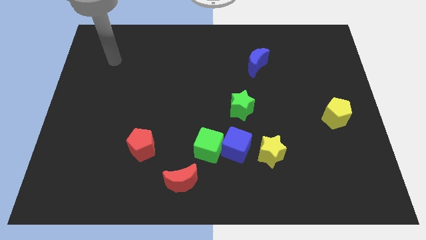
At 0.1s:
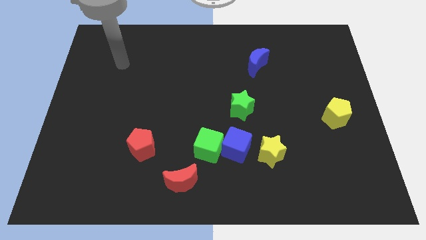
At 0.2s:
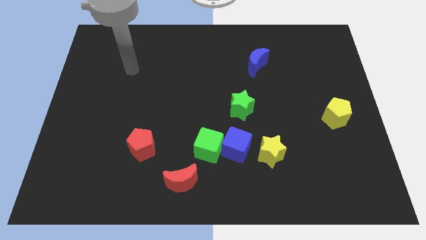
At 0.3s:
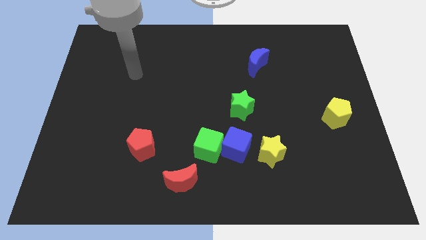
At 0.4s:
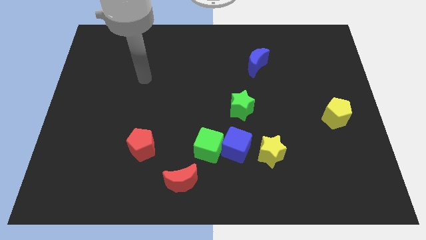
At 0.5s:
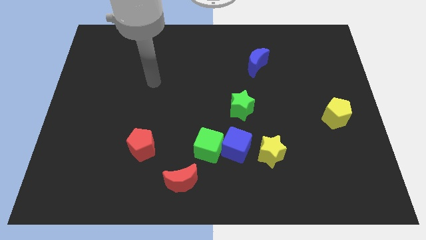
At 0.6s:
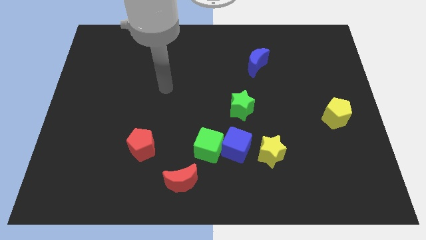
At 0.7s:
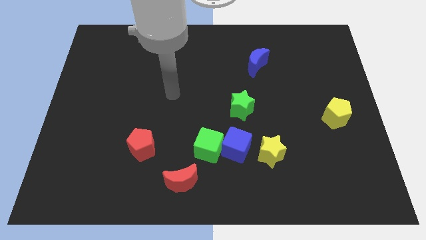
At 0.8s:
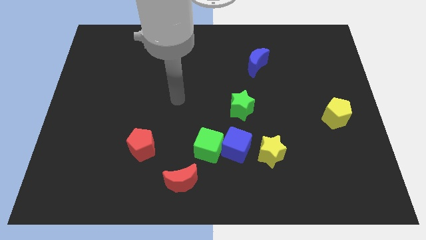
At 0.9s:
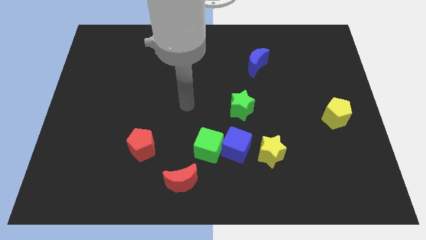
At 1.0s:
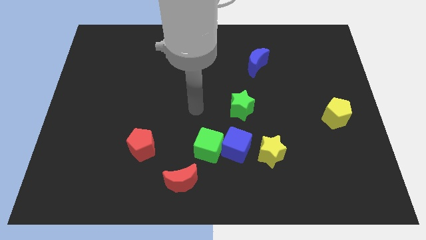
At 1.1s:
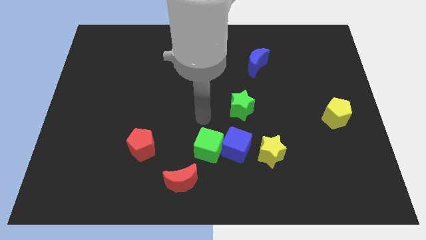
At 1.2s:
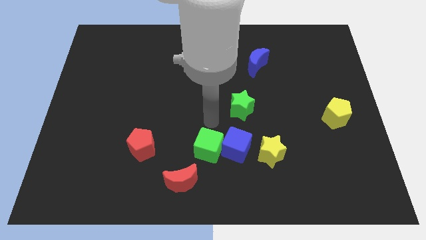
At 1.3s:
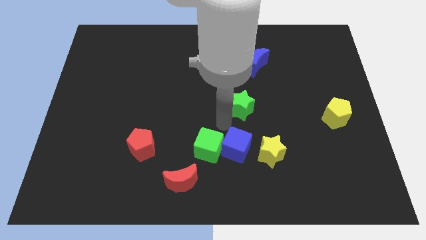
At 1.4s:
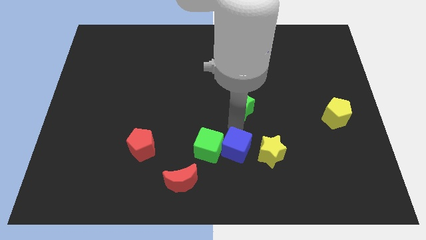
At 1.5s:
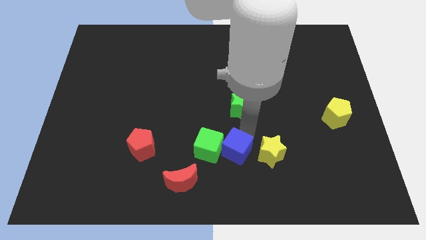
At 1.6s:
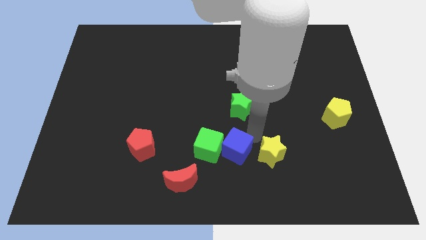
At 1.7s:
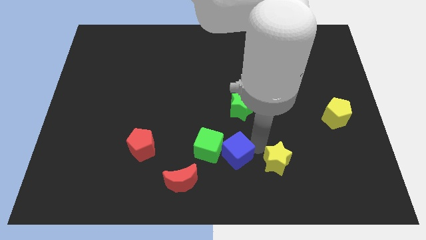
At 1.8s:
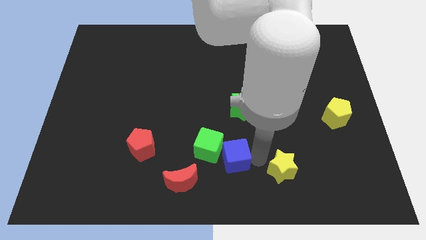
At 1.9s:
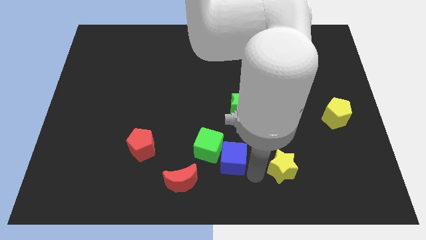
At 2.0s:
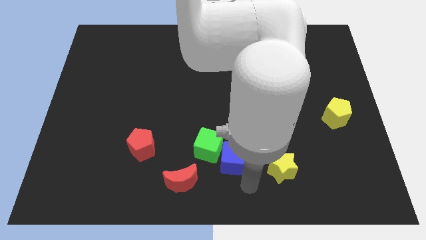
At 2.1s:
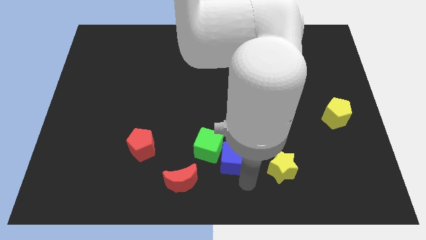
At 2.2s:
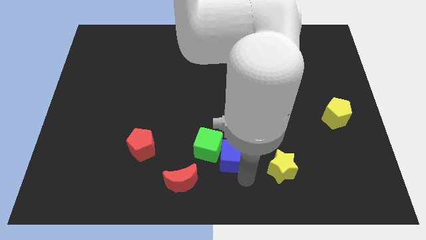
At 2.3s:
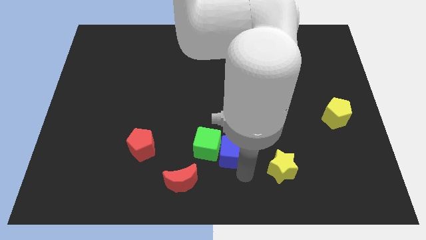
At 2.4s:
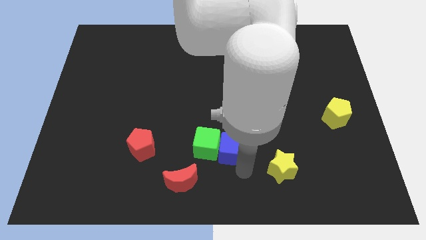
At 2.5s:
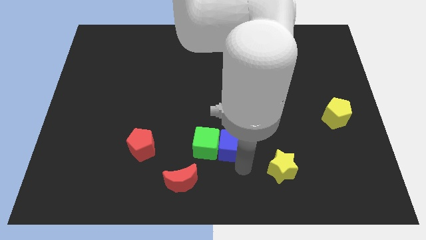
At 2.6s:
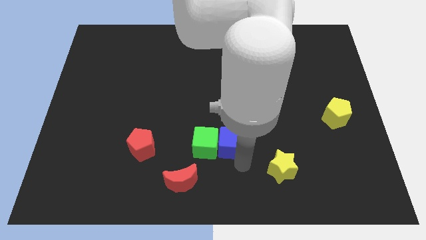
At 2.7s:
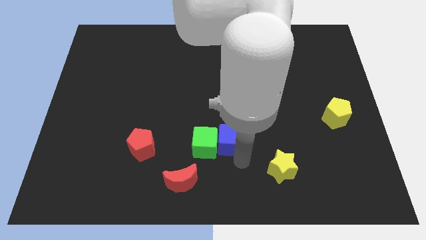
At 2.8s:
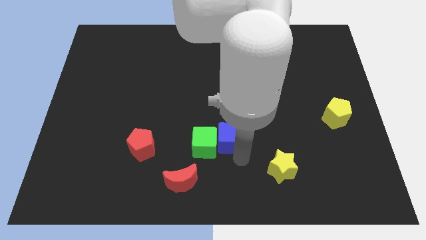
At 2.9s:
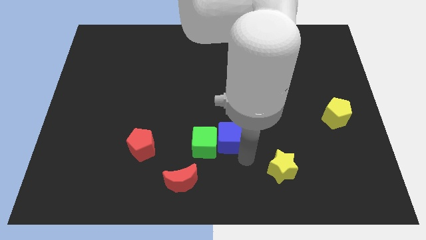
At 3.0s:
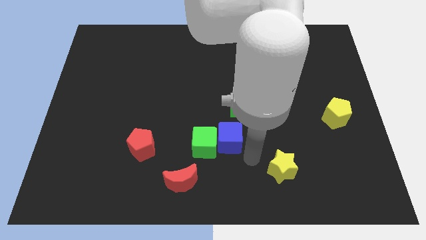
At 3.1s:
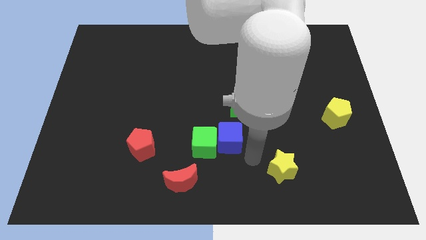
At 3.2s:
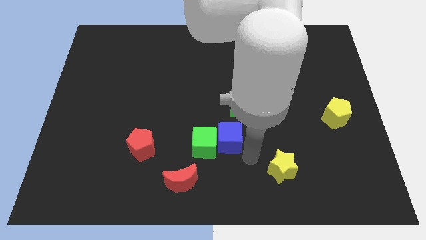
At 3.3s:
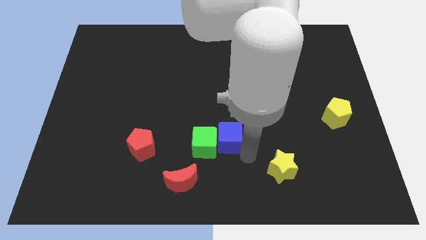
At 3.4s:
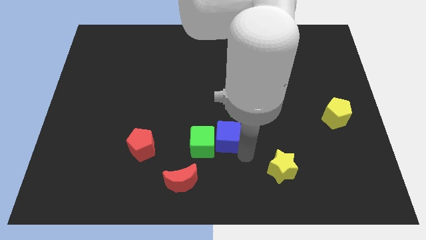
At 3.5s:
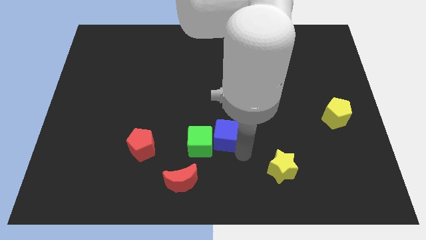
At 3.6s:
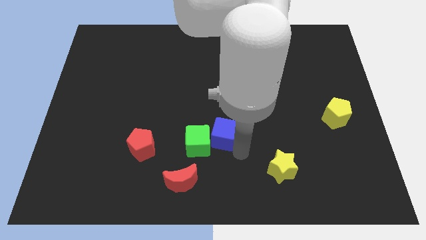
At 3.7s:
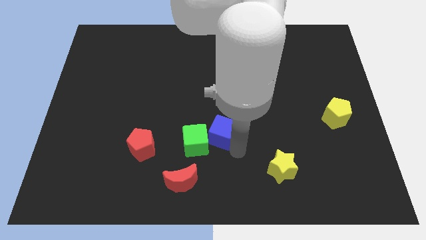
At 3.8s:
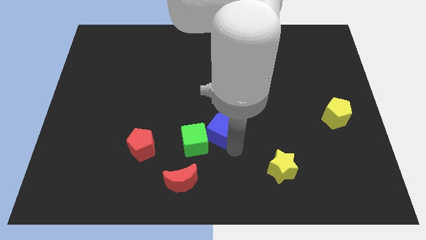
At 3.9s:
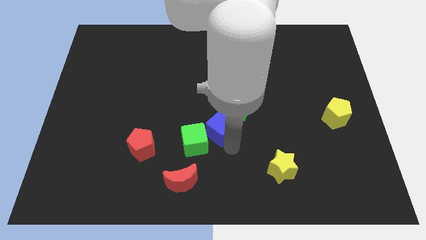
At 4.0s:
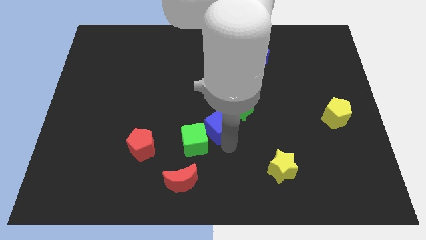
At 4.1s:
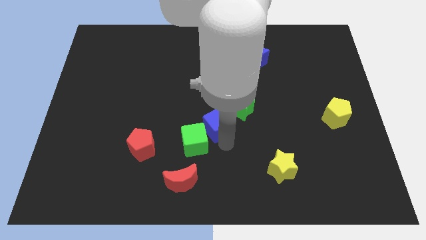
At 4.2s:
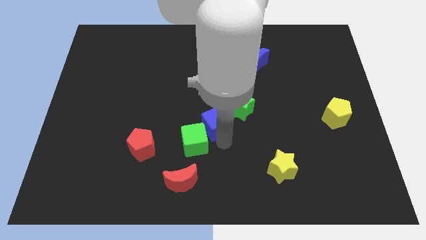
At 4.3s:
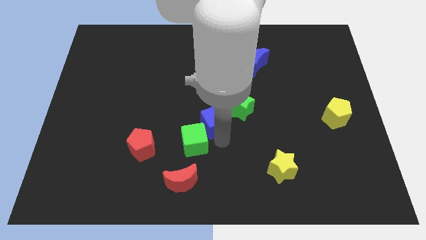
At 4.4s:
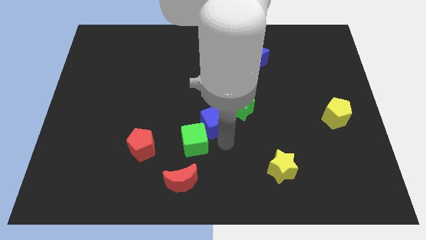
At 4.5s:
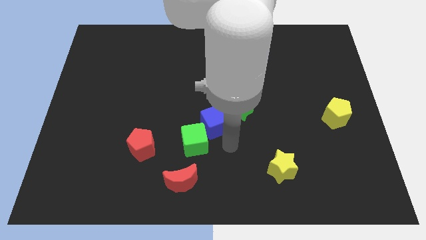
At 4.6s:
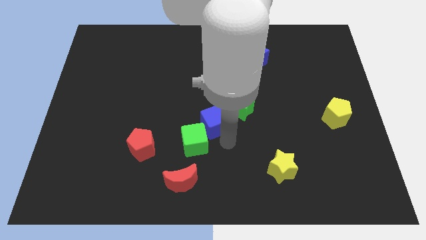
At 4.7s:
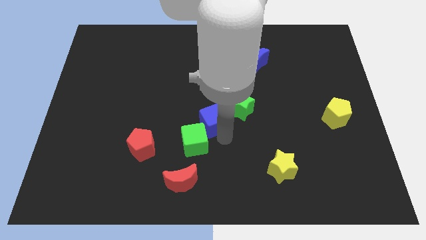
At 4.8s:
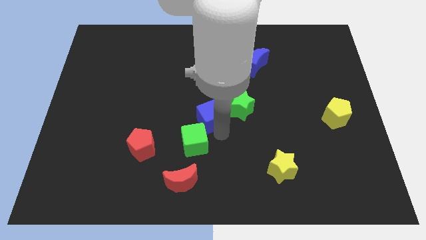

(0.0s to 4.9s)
separate the blue cube from the green cube and yellow star

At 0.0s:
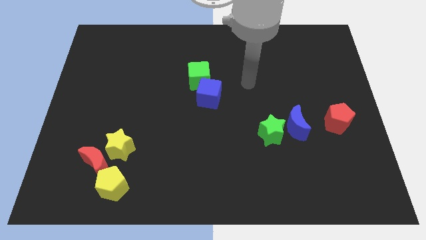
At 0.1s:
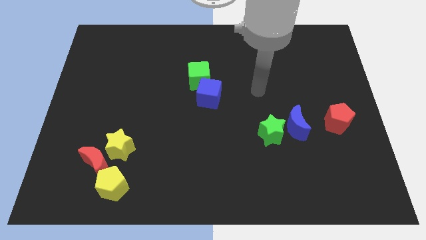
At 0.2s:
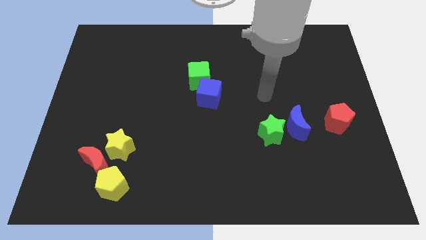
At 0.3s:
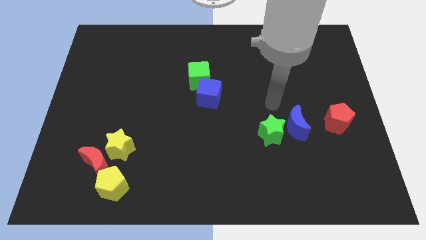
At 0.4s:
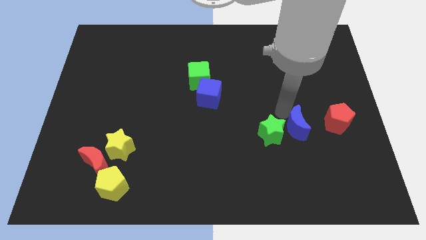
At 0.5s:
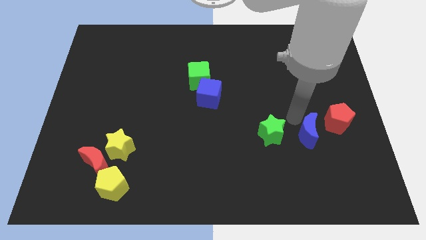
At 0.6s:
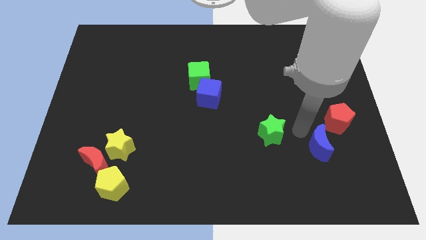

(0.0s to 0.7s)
separate the green star from the blue moon

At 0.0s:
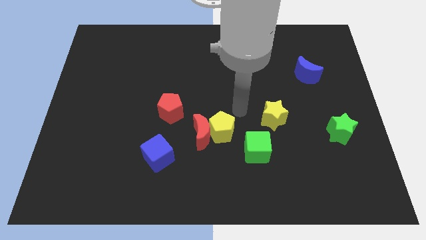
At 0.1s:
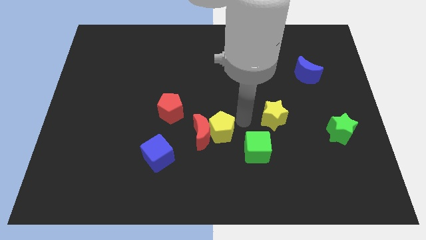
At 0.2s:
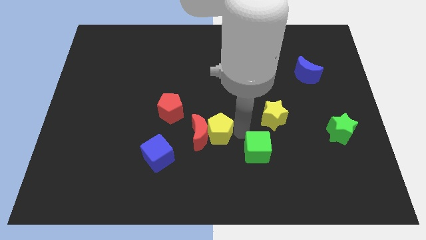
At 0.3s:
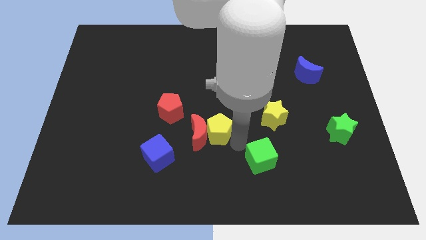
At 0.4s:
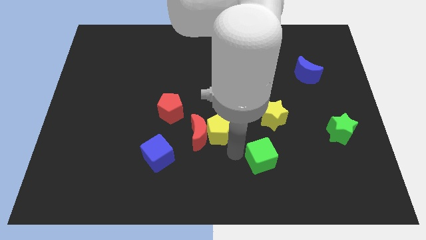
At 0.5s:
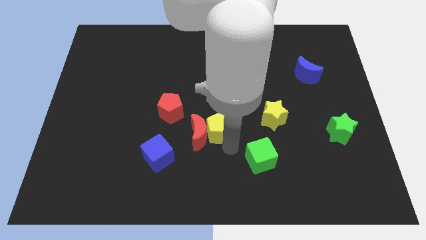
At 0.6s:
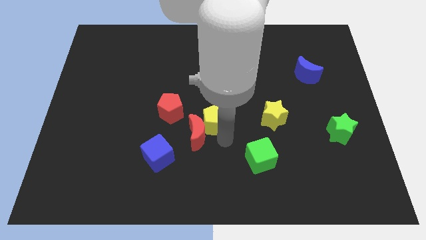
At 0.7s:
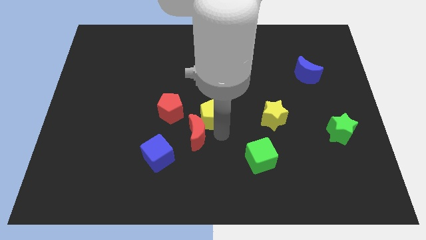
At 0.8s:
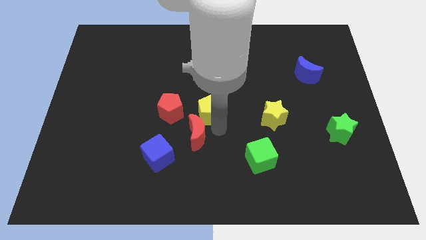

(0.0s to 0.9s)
pull the yellow pentagon apart from the red moon and green cube

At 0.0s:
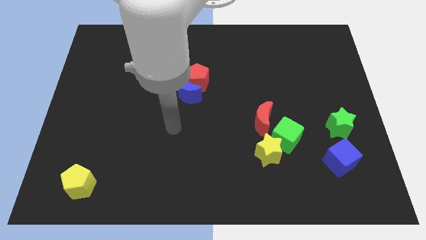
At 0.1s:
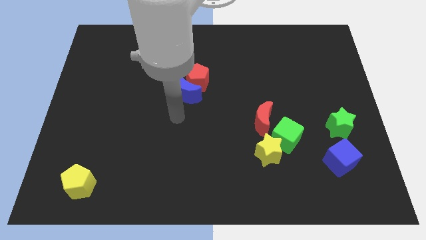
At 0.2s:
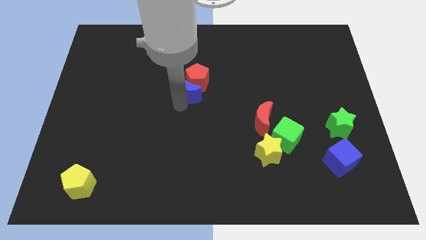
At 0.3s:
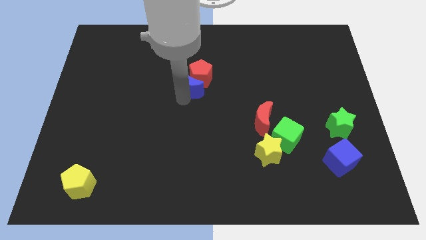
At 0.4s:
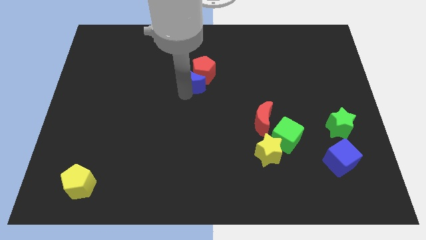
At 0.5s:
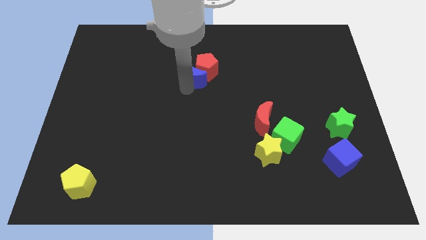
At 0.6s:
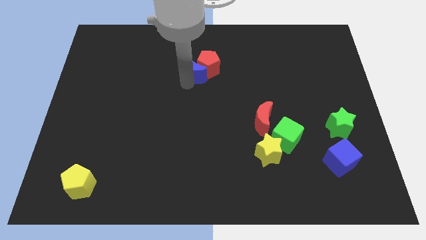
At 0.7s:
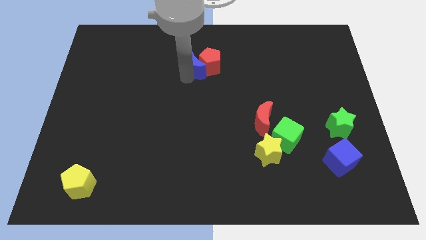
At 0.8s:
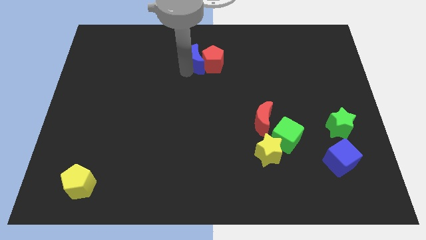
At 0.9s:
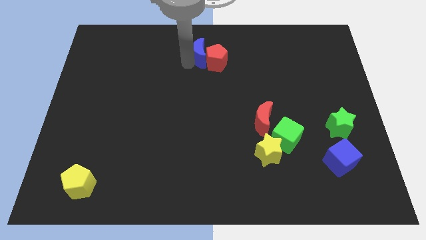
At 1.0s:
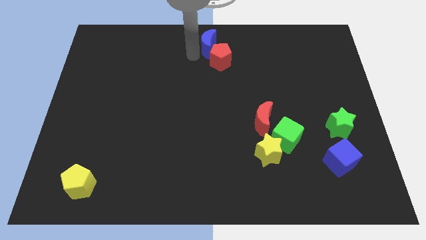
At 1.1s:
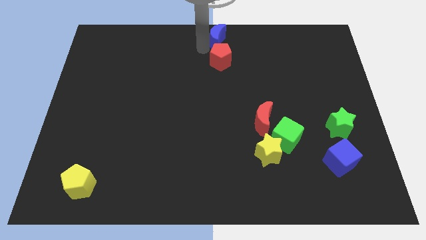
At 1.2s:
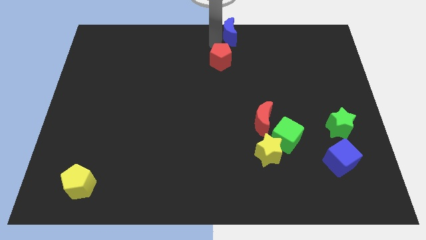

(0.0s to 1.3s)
pull the red pentagon apart from the blue moon

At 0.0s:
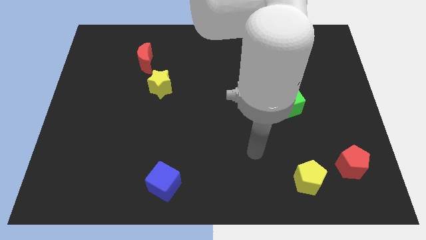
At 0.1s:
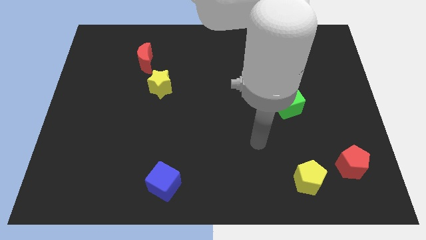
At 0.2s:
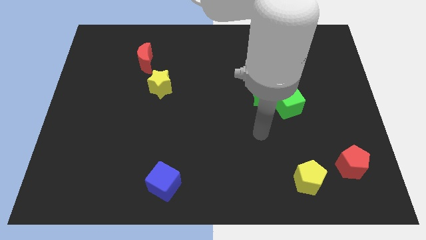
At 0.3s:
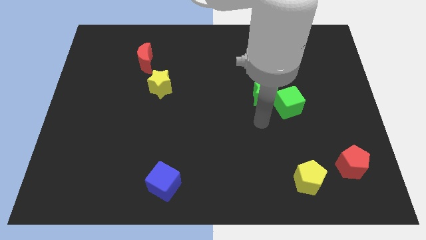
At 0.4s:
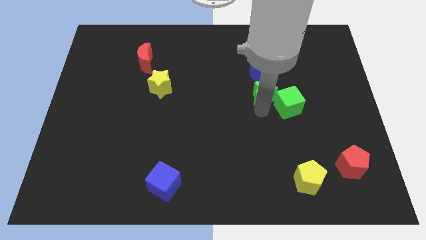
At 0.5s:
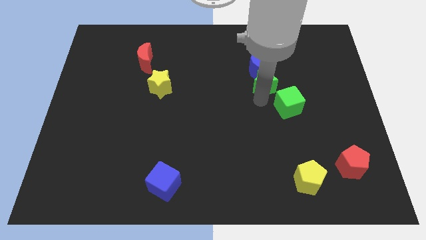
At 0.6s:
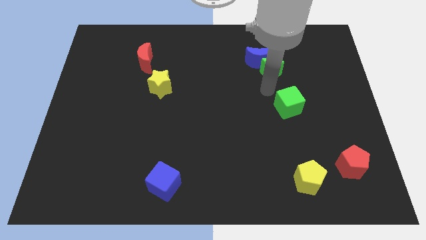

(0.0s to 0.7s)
move the green cube away from the green star

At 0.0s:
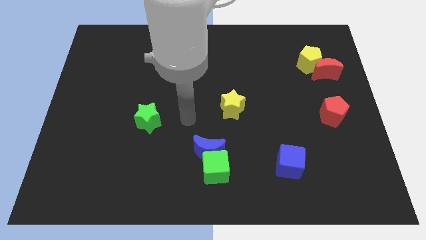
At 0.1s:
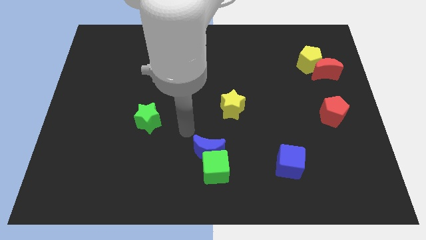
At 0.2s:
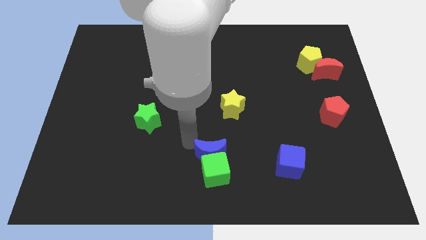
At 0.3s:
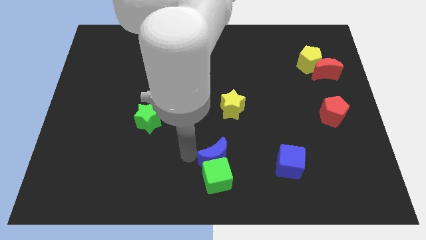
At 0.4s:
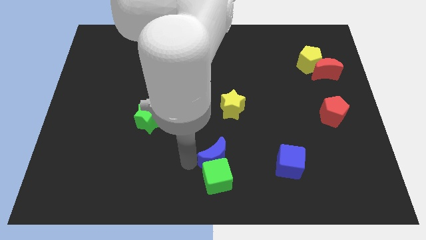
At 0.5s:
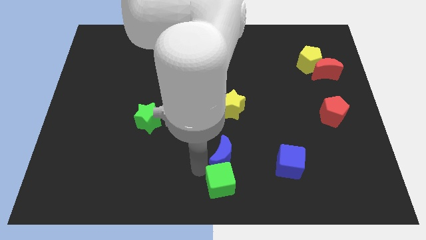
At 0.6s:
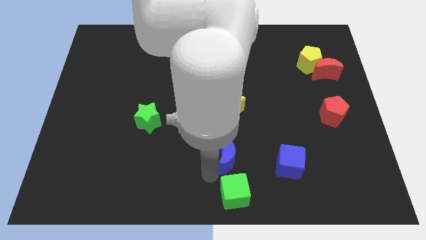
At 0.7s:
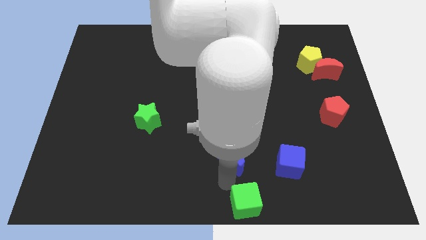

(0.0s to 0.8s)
pull the blue moon apart from the green cube
